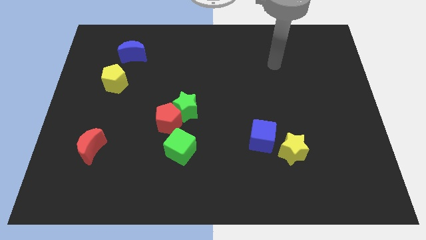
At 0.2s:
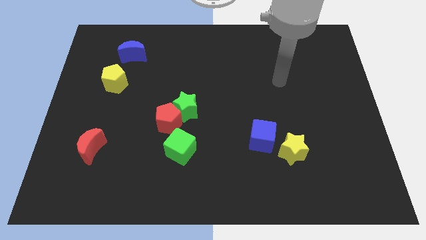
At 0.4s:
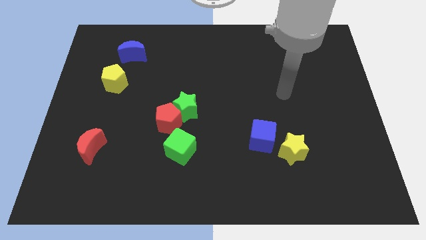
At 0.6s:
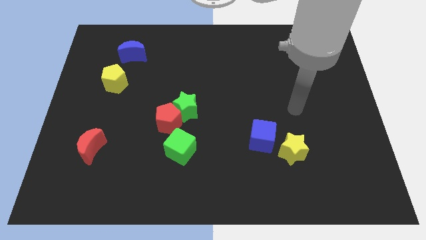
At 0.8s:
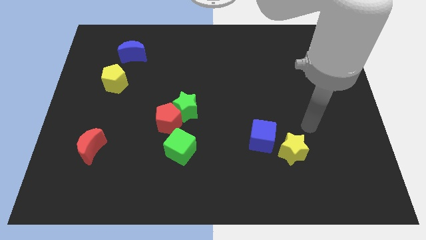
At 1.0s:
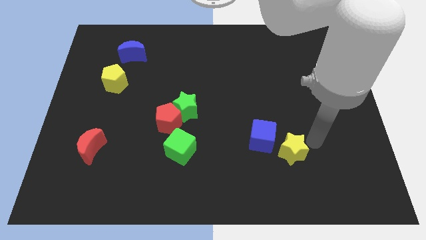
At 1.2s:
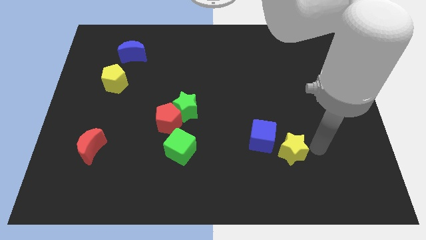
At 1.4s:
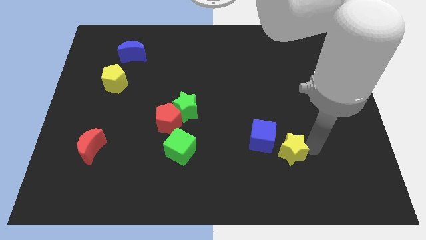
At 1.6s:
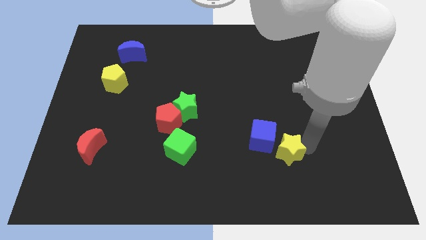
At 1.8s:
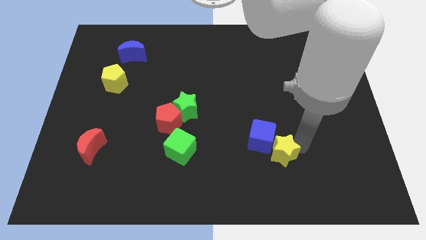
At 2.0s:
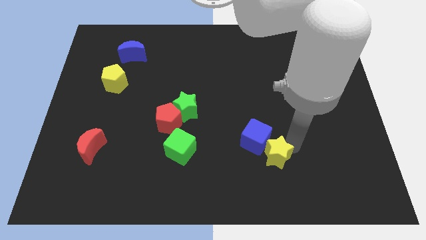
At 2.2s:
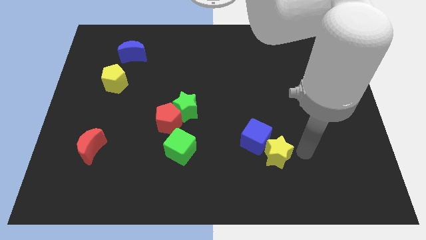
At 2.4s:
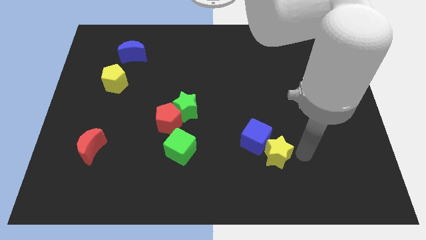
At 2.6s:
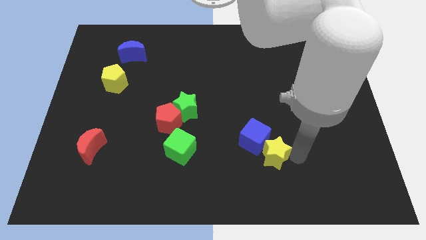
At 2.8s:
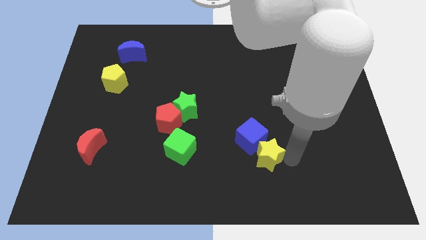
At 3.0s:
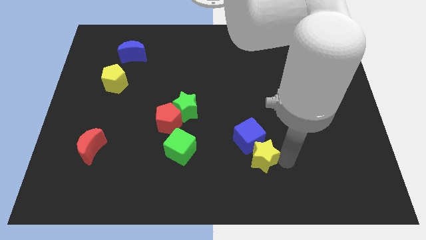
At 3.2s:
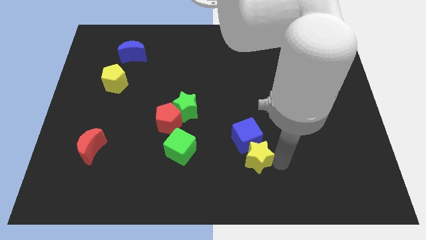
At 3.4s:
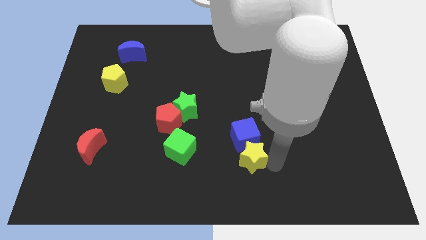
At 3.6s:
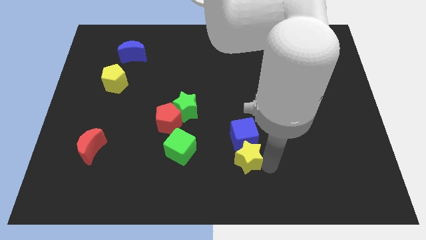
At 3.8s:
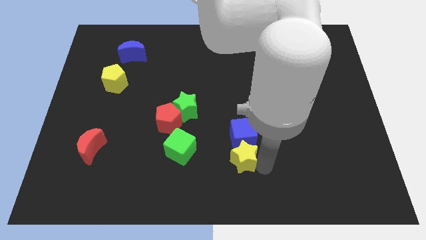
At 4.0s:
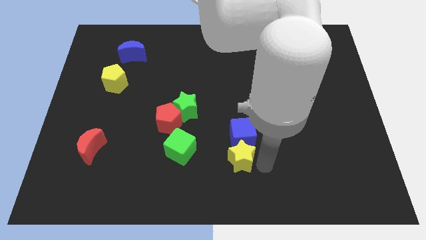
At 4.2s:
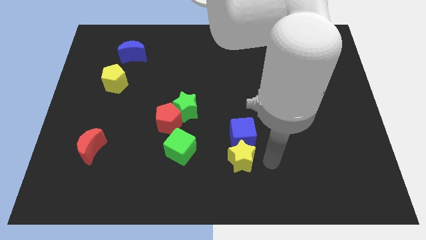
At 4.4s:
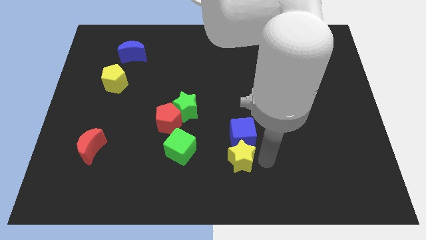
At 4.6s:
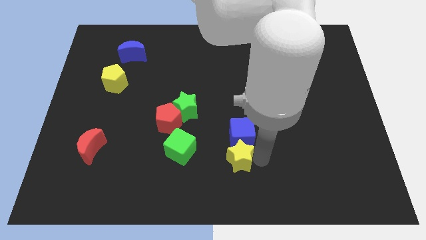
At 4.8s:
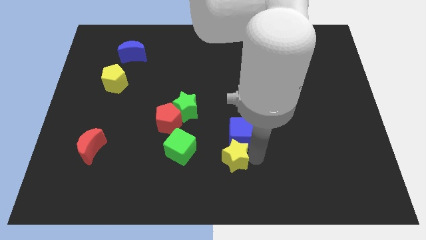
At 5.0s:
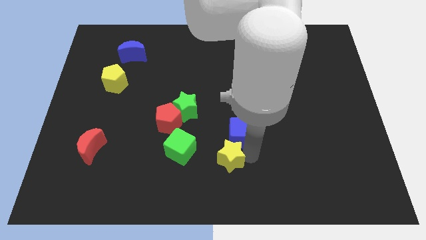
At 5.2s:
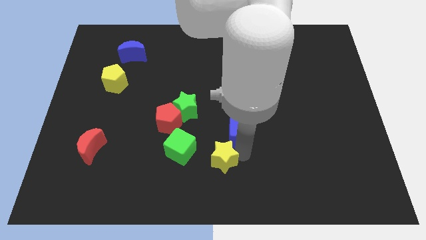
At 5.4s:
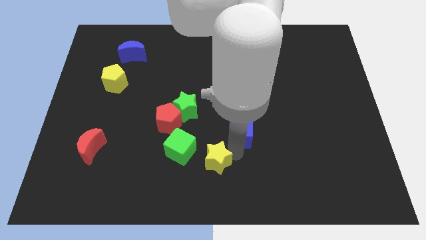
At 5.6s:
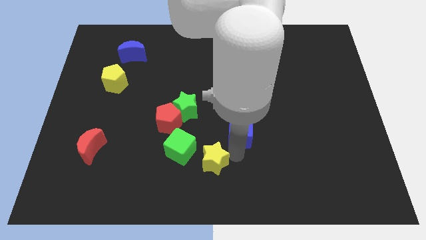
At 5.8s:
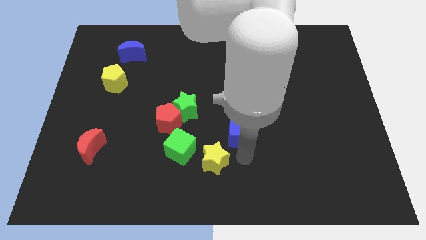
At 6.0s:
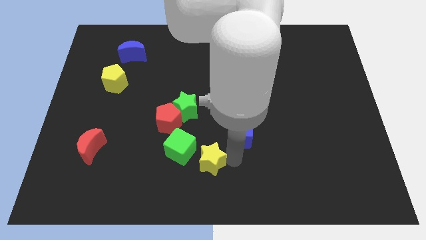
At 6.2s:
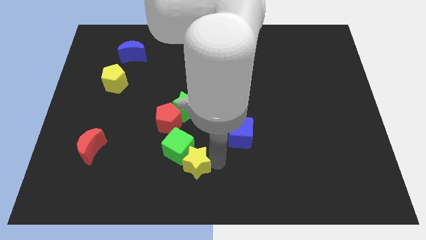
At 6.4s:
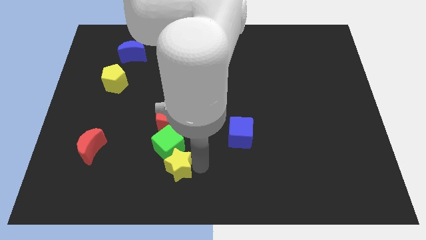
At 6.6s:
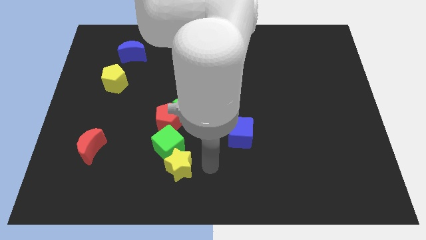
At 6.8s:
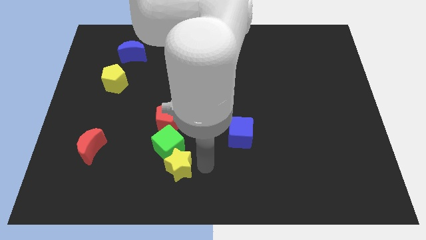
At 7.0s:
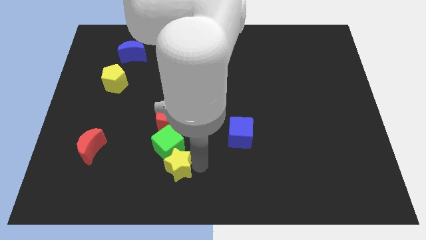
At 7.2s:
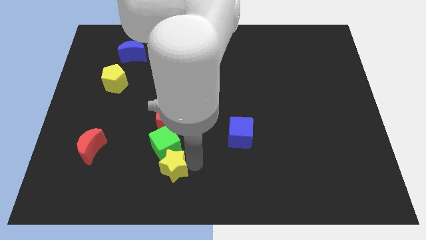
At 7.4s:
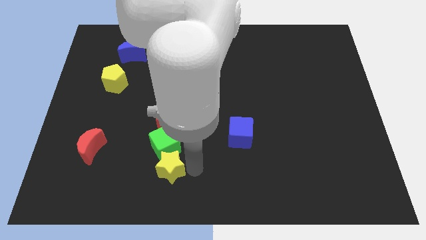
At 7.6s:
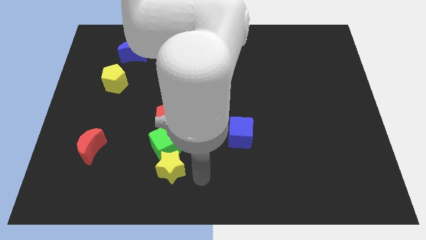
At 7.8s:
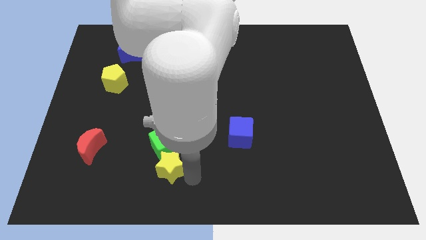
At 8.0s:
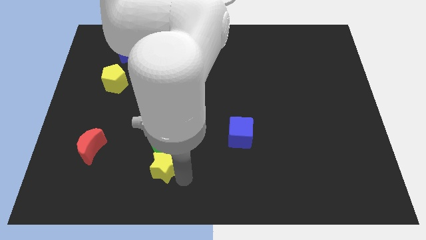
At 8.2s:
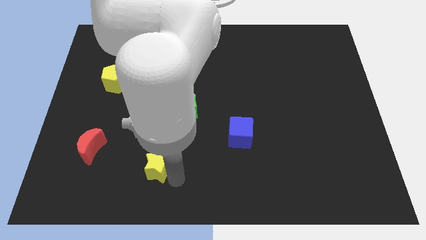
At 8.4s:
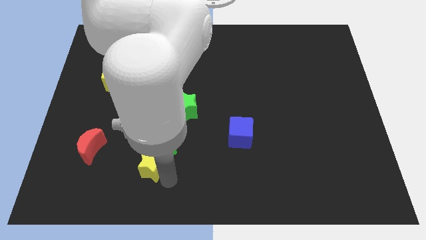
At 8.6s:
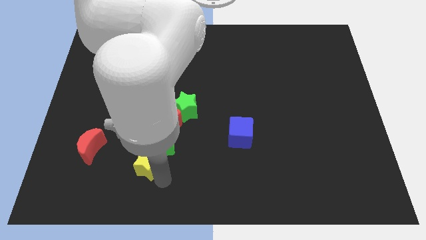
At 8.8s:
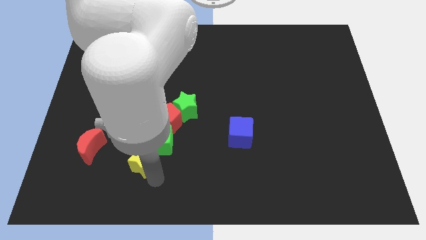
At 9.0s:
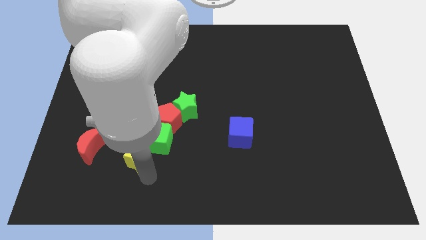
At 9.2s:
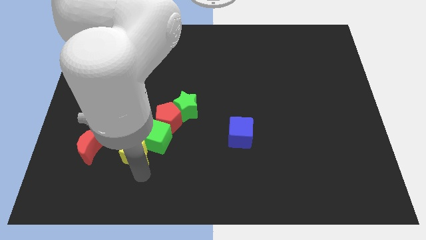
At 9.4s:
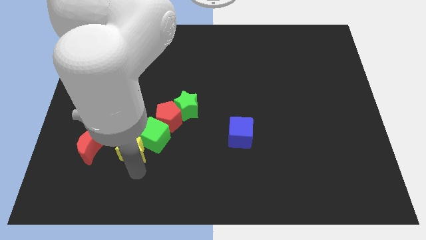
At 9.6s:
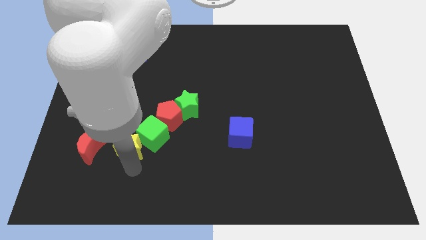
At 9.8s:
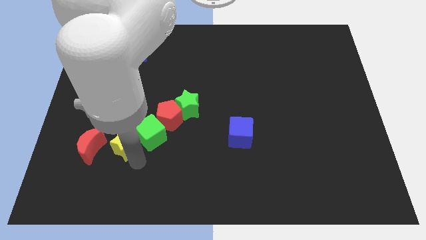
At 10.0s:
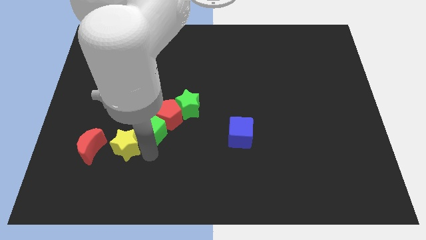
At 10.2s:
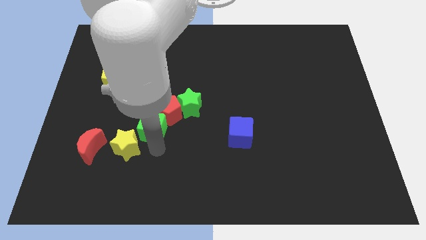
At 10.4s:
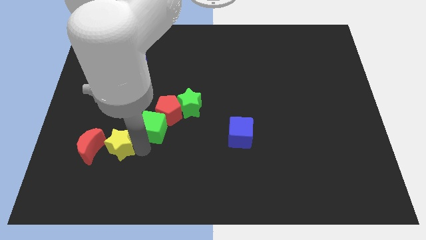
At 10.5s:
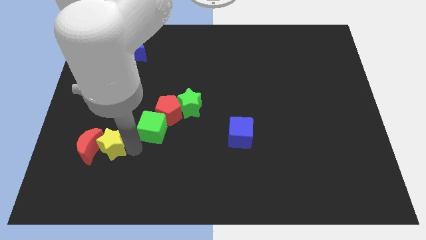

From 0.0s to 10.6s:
slide the yellow star to the red moon

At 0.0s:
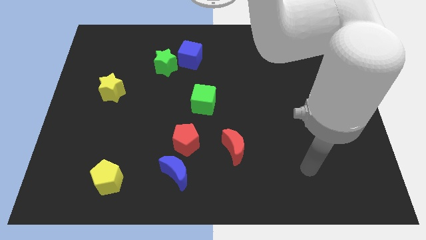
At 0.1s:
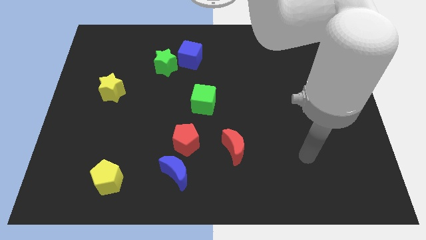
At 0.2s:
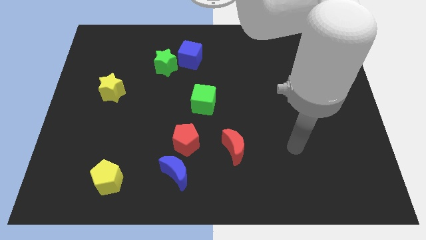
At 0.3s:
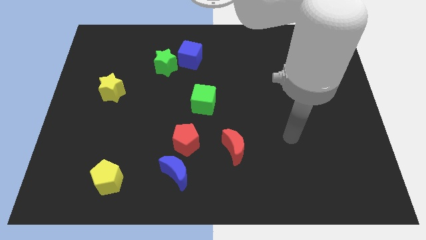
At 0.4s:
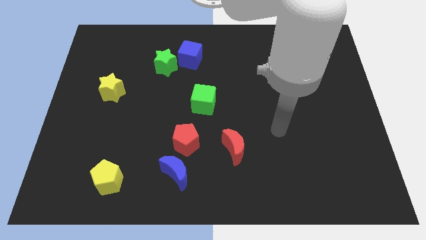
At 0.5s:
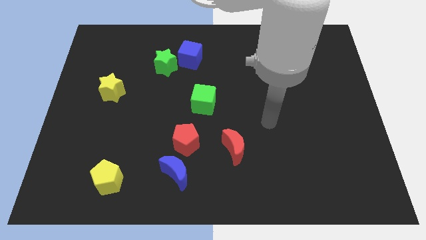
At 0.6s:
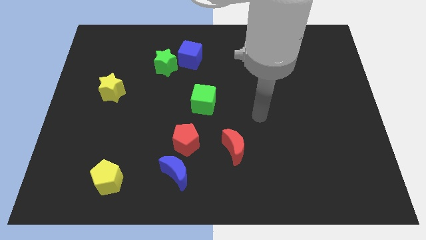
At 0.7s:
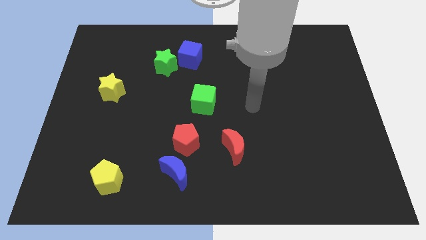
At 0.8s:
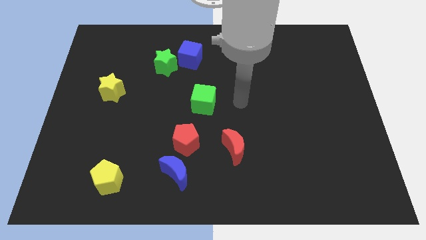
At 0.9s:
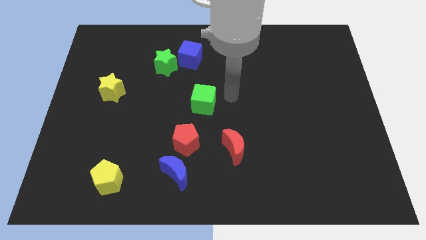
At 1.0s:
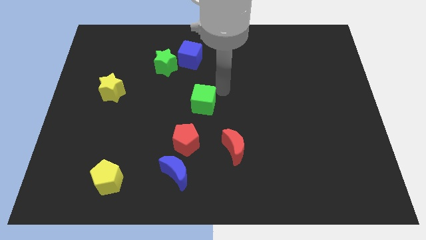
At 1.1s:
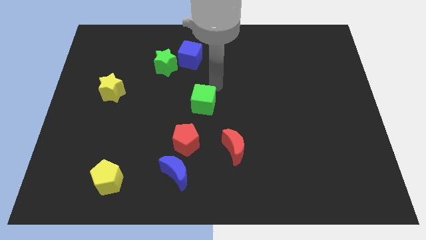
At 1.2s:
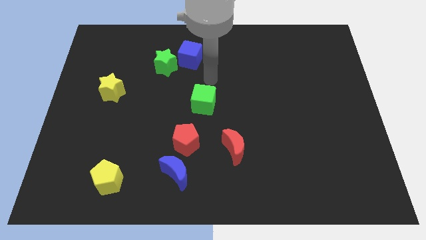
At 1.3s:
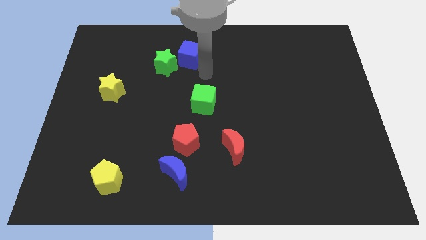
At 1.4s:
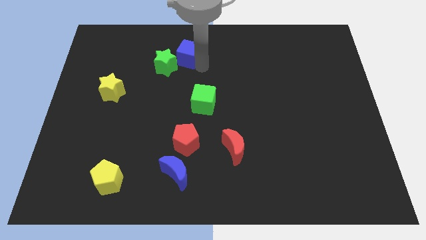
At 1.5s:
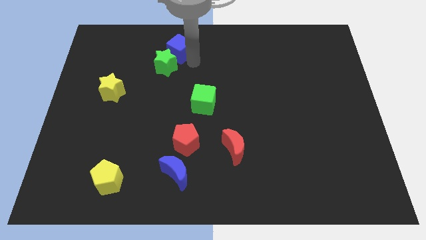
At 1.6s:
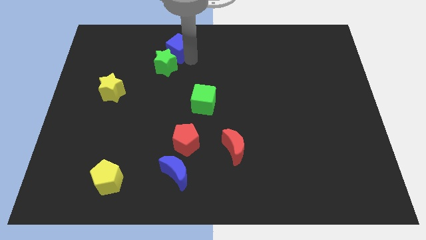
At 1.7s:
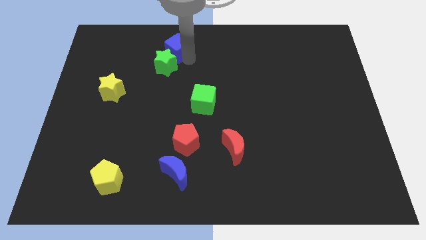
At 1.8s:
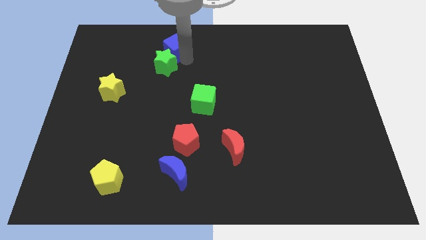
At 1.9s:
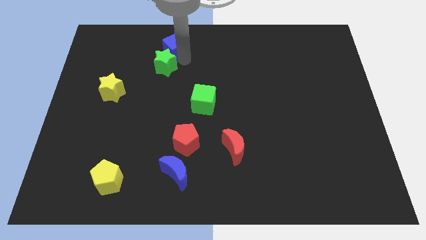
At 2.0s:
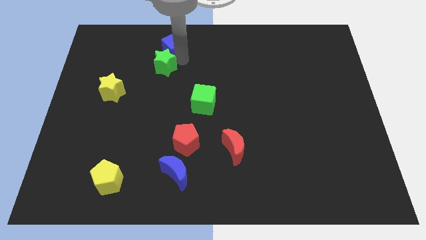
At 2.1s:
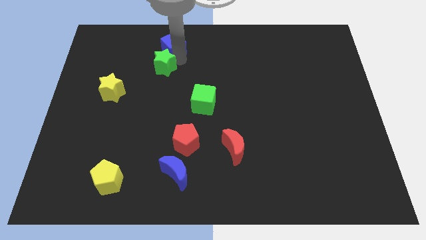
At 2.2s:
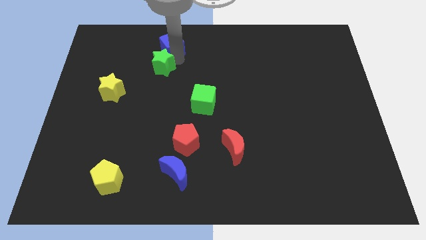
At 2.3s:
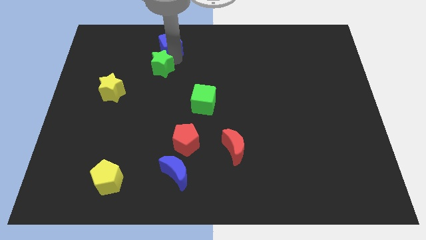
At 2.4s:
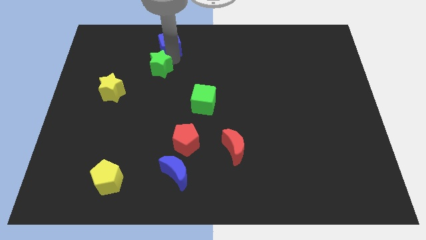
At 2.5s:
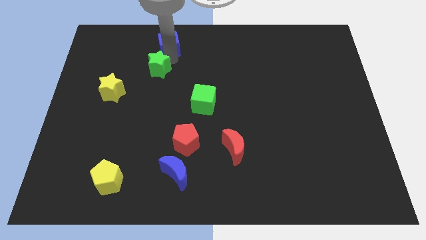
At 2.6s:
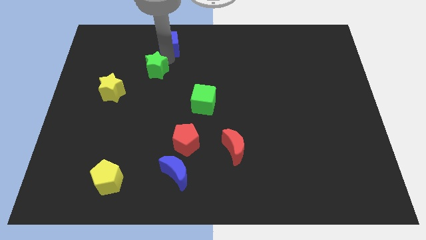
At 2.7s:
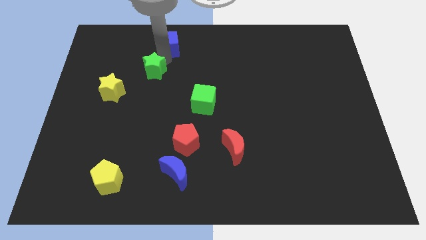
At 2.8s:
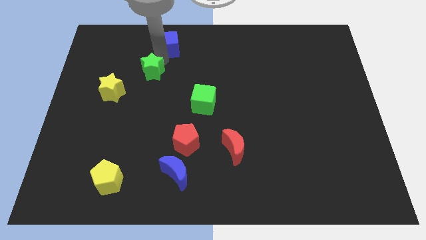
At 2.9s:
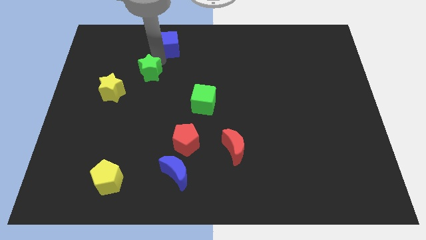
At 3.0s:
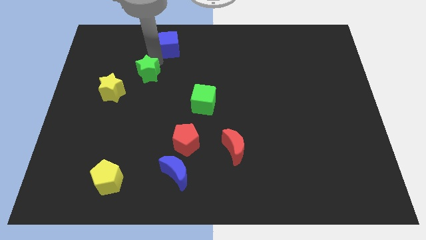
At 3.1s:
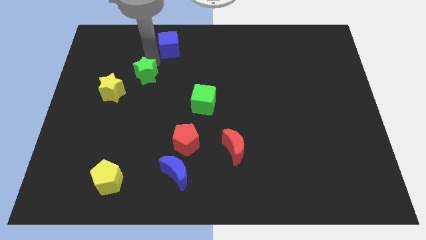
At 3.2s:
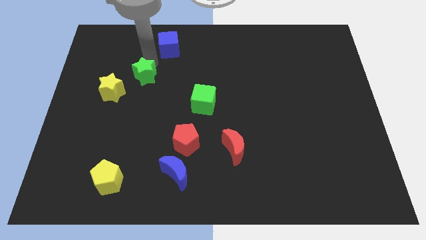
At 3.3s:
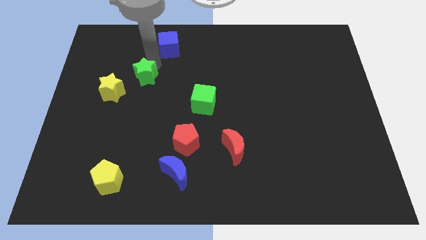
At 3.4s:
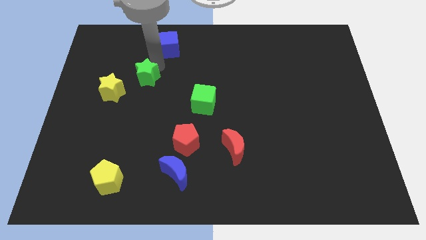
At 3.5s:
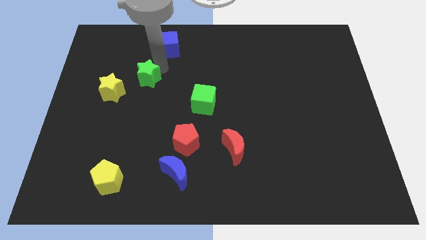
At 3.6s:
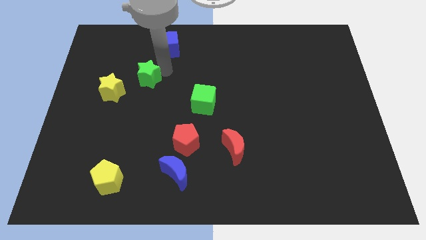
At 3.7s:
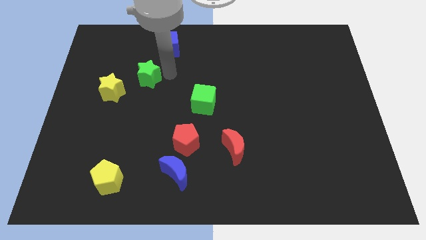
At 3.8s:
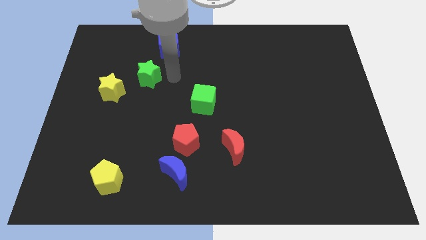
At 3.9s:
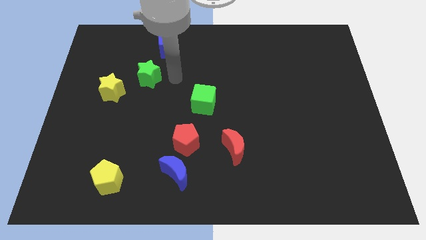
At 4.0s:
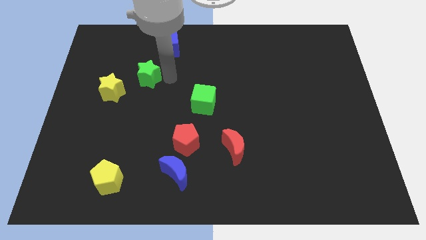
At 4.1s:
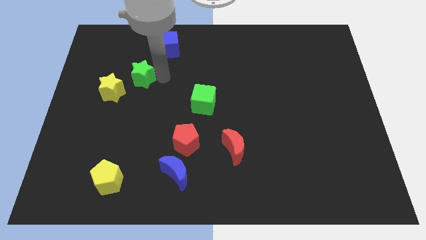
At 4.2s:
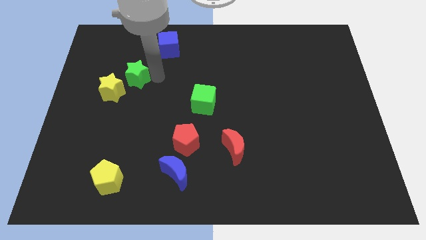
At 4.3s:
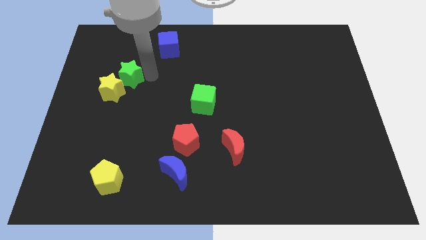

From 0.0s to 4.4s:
move the green star close to the yellow star
